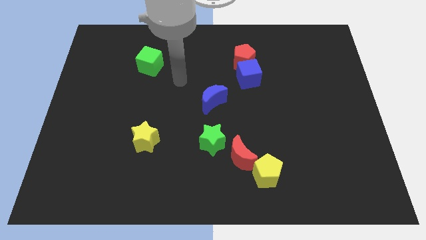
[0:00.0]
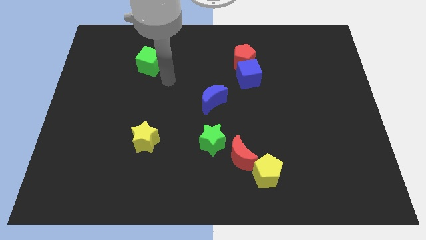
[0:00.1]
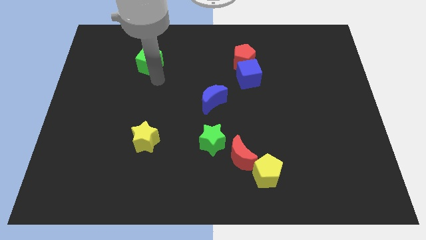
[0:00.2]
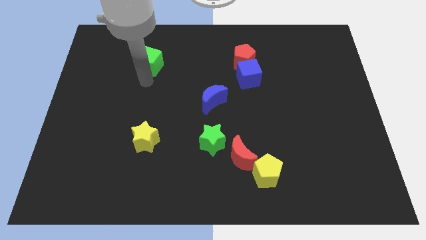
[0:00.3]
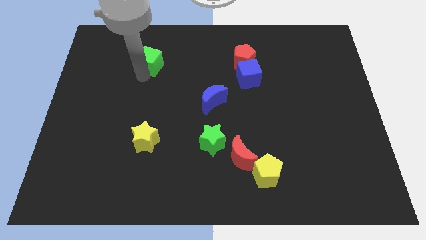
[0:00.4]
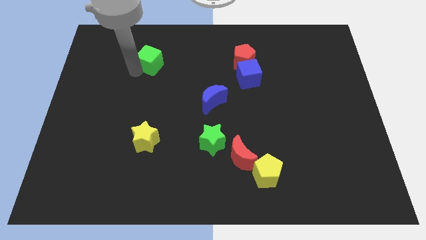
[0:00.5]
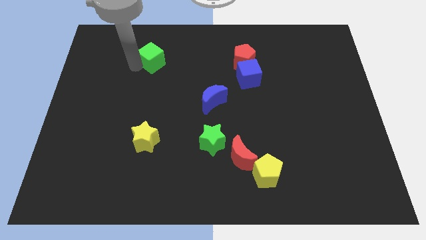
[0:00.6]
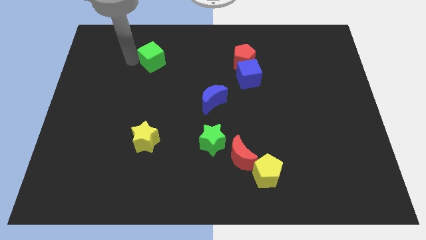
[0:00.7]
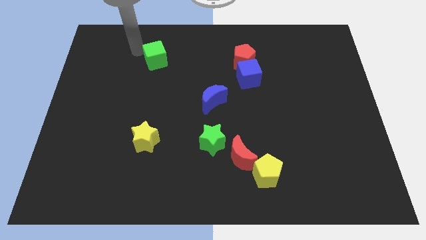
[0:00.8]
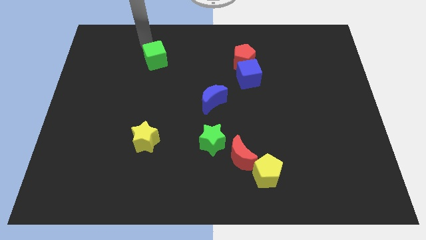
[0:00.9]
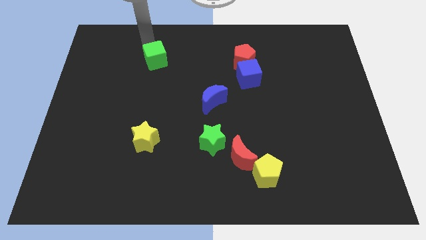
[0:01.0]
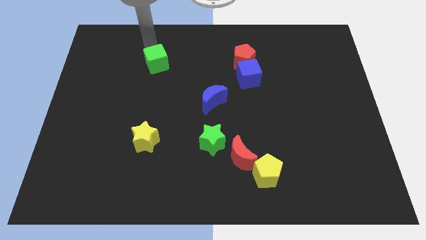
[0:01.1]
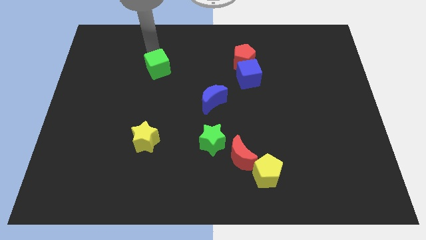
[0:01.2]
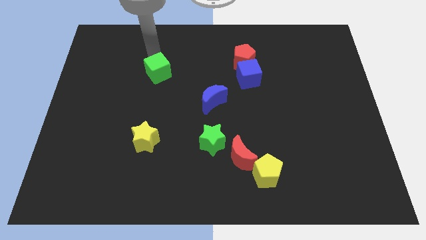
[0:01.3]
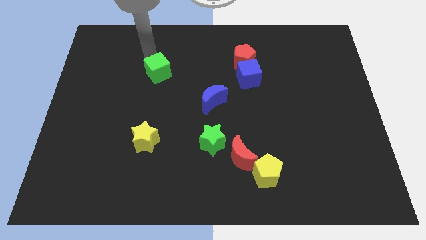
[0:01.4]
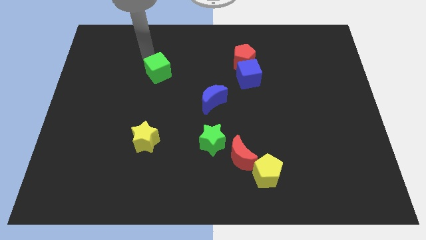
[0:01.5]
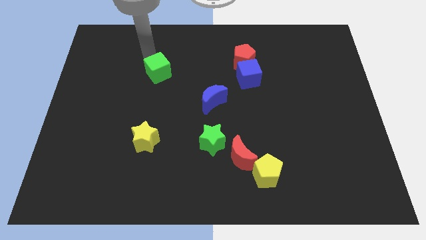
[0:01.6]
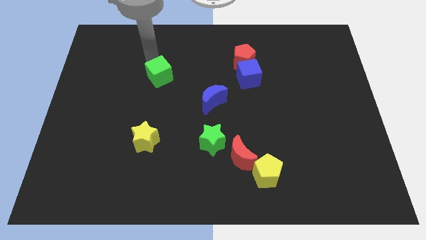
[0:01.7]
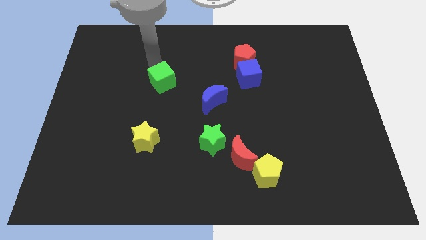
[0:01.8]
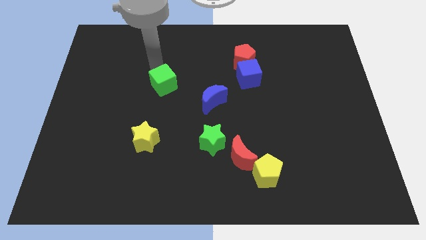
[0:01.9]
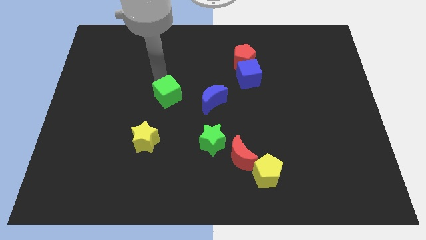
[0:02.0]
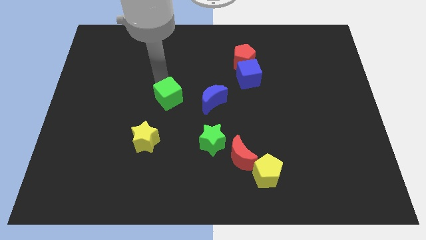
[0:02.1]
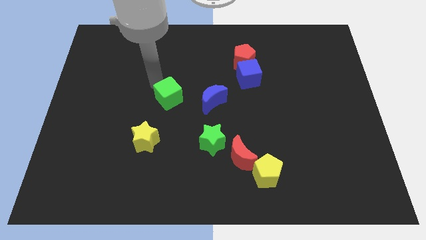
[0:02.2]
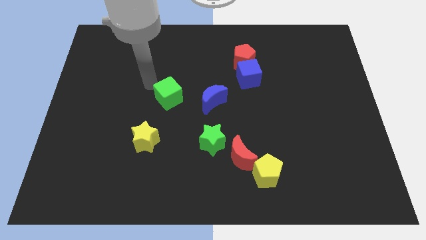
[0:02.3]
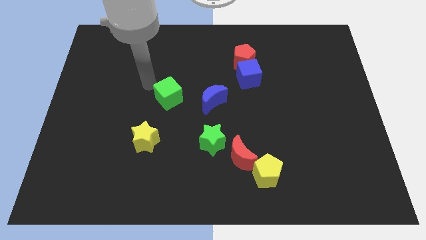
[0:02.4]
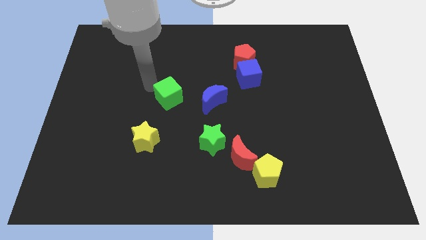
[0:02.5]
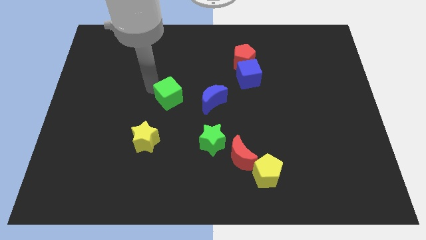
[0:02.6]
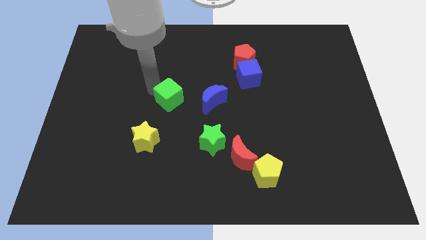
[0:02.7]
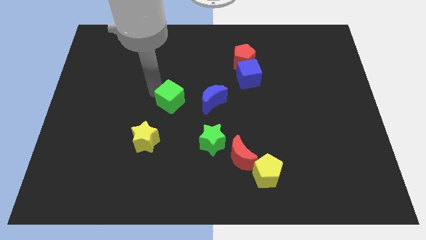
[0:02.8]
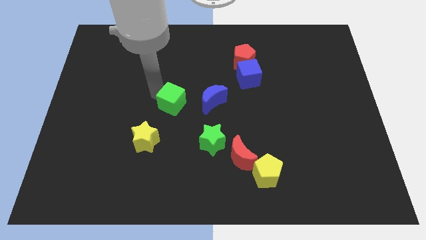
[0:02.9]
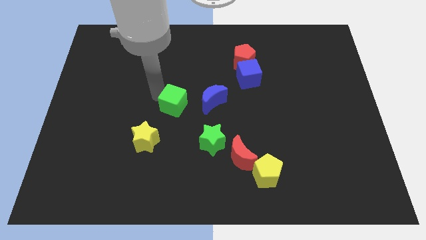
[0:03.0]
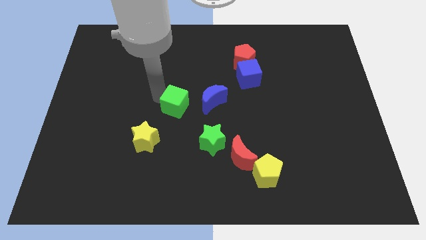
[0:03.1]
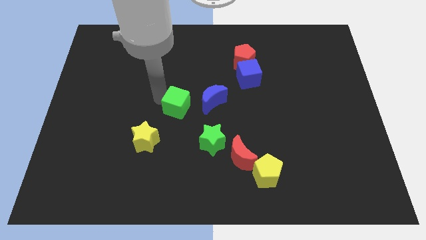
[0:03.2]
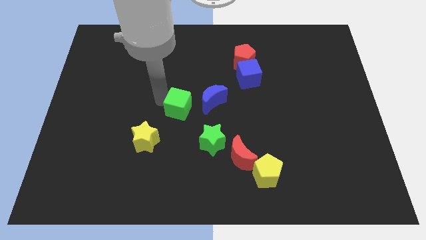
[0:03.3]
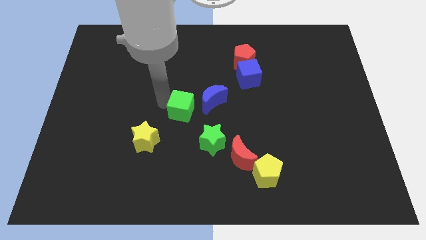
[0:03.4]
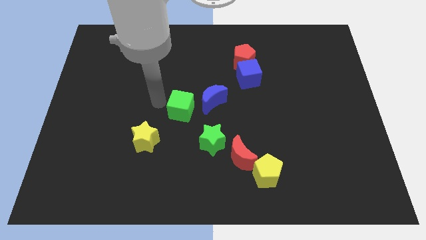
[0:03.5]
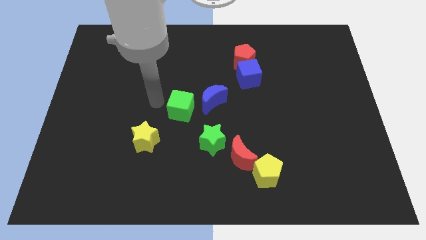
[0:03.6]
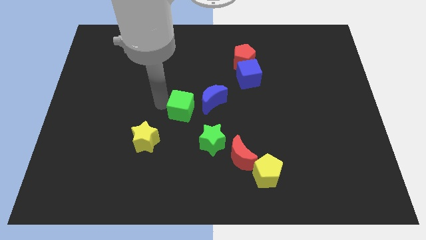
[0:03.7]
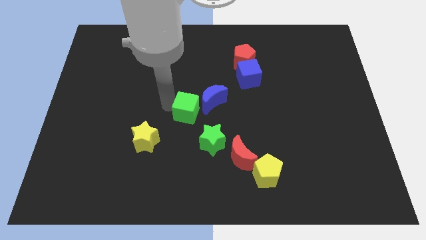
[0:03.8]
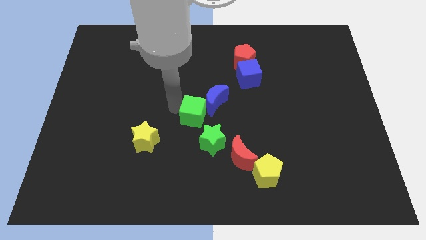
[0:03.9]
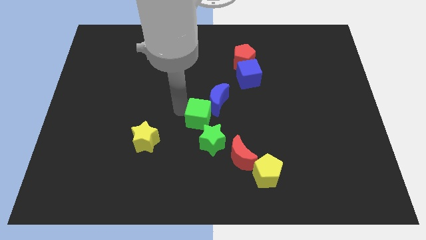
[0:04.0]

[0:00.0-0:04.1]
slide the green cube downwards and then right

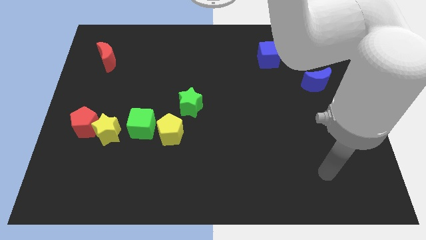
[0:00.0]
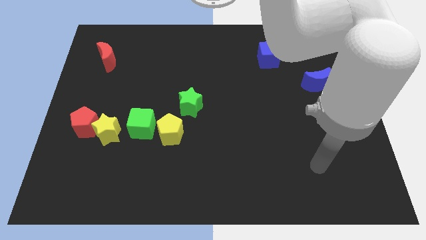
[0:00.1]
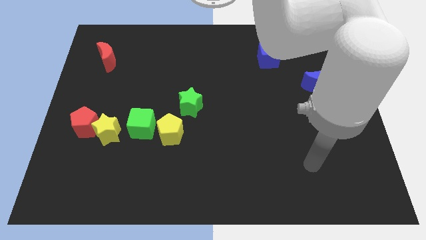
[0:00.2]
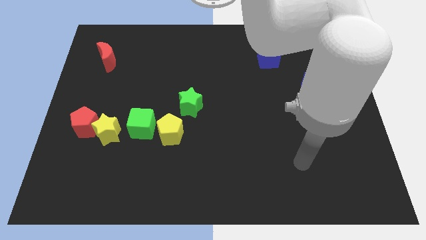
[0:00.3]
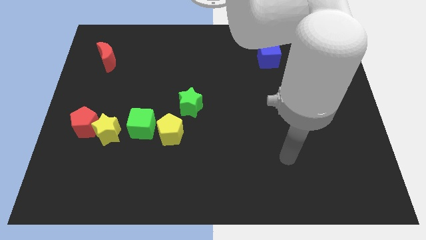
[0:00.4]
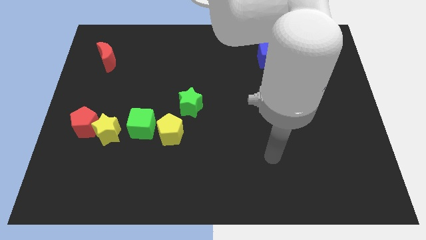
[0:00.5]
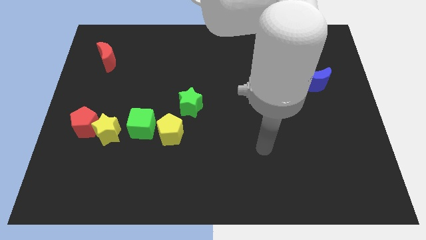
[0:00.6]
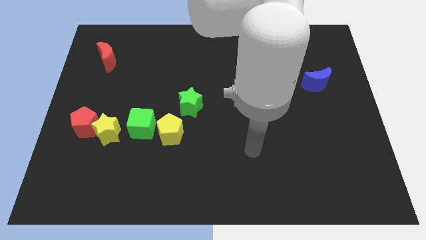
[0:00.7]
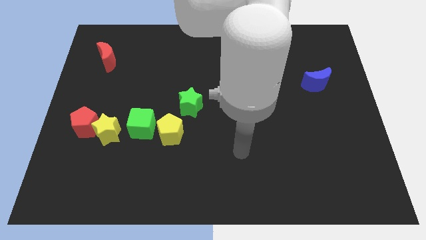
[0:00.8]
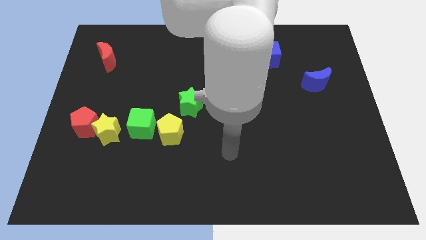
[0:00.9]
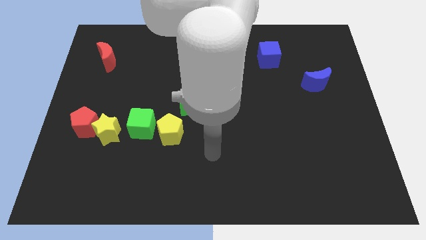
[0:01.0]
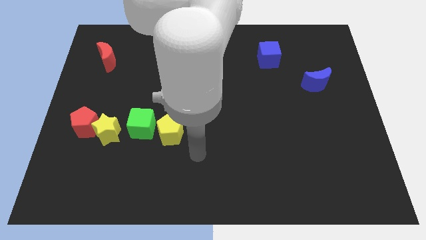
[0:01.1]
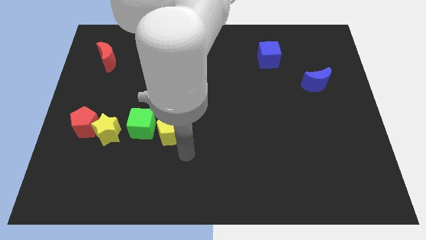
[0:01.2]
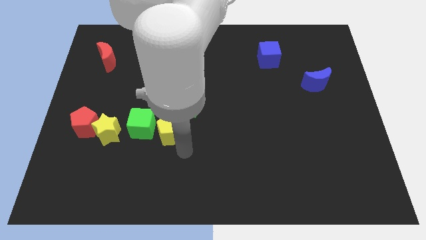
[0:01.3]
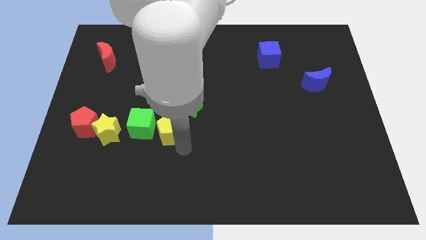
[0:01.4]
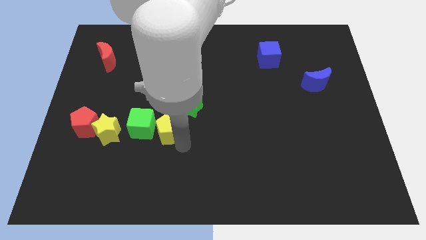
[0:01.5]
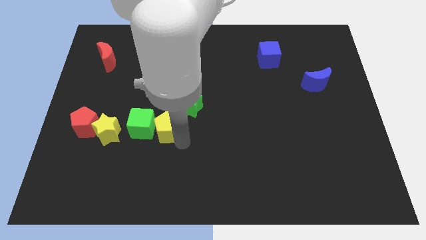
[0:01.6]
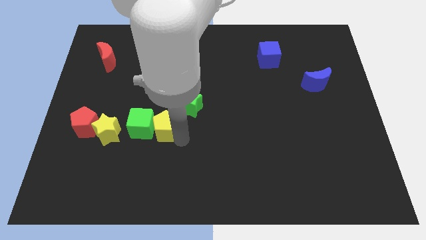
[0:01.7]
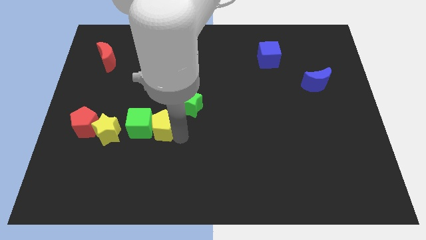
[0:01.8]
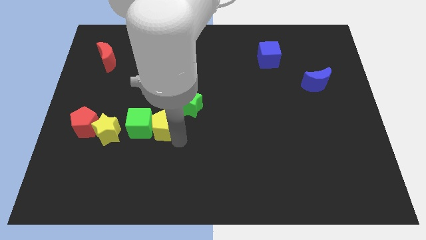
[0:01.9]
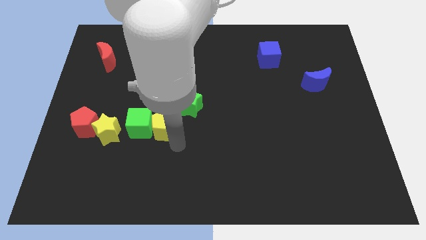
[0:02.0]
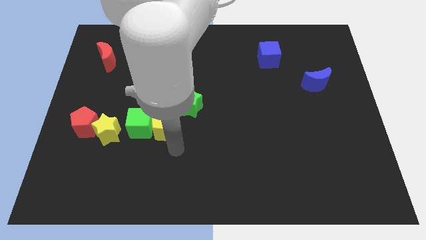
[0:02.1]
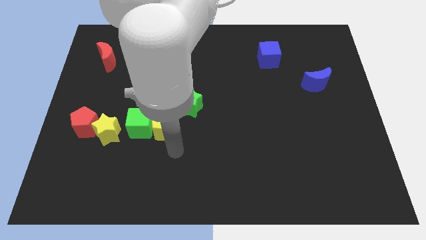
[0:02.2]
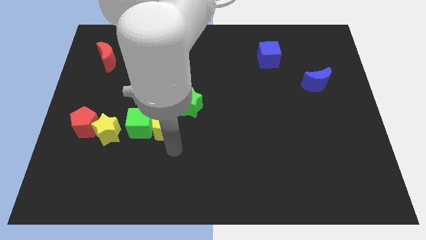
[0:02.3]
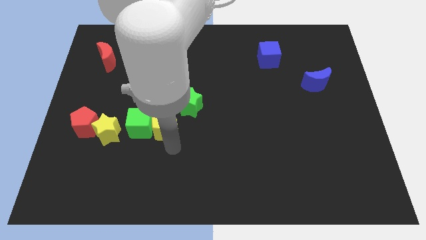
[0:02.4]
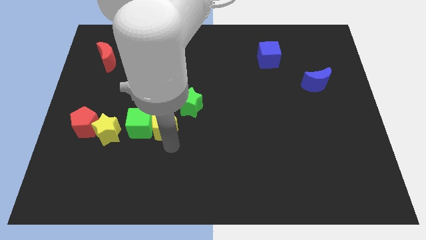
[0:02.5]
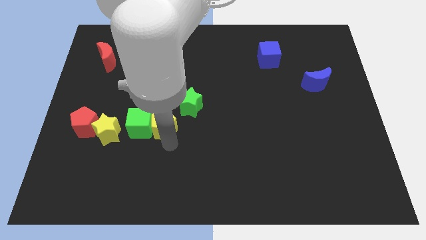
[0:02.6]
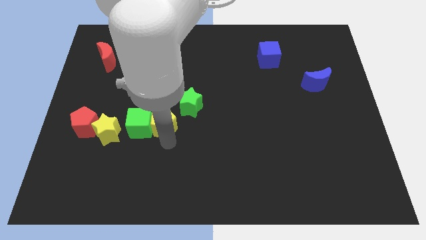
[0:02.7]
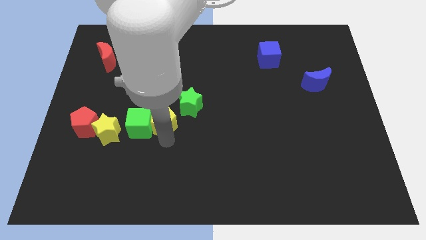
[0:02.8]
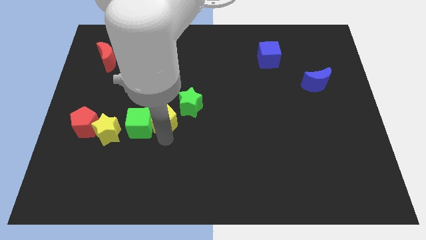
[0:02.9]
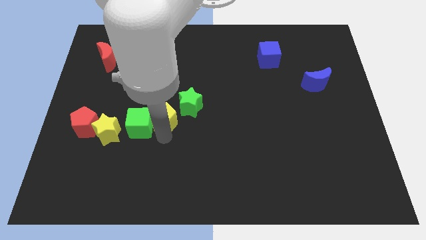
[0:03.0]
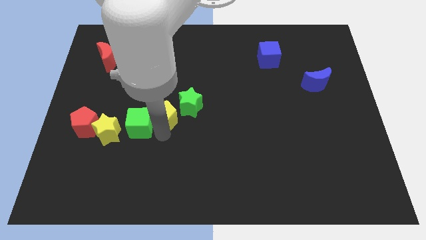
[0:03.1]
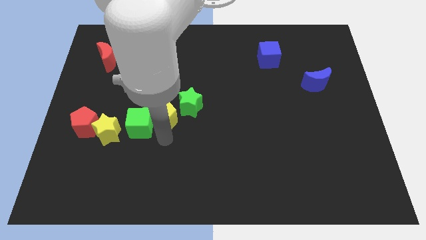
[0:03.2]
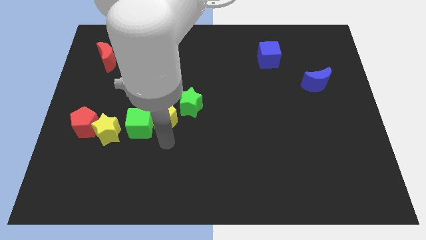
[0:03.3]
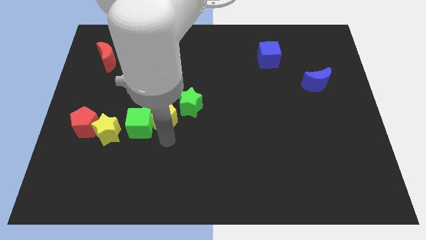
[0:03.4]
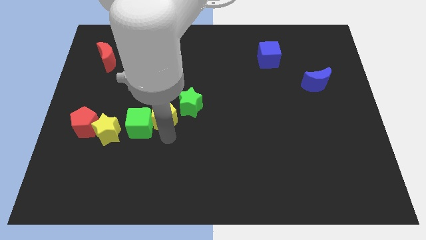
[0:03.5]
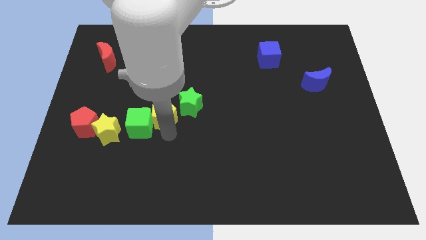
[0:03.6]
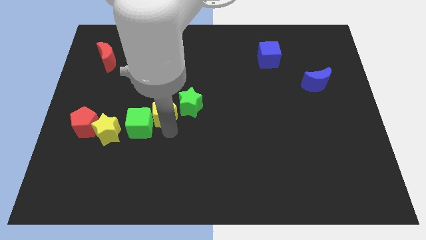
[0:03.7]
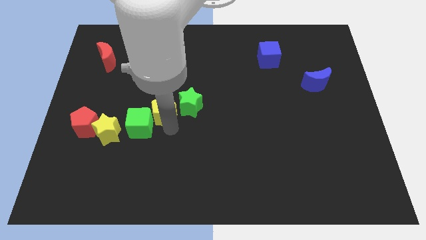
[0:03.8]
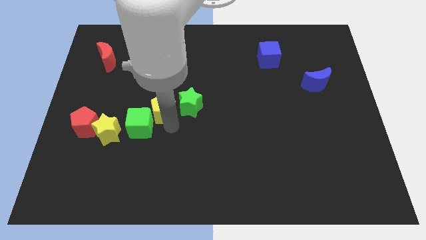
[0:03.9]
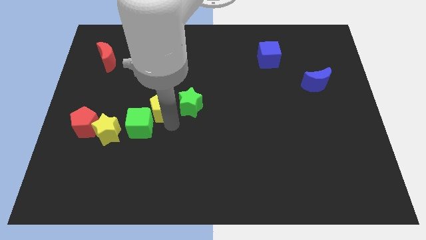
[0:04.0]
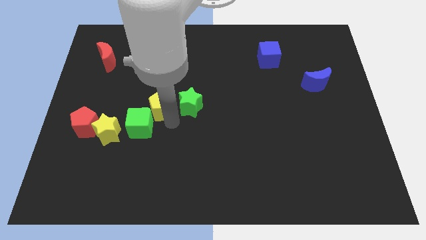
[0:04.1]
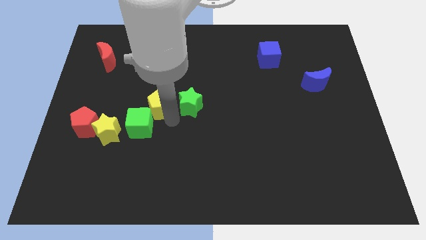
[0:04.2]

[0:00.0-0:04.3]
push the yellow pentagon up a little bit
